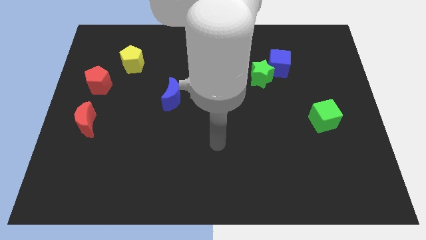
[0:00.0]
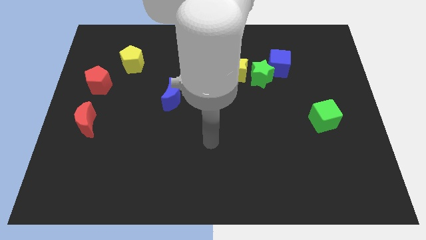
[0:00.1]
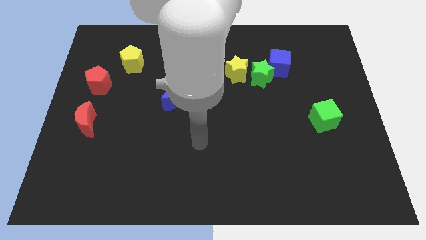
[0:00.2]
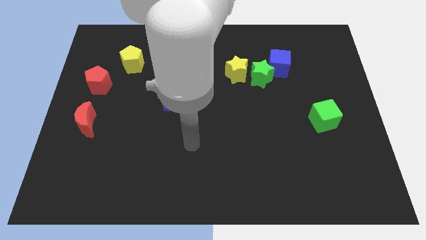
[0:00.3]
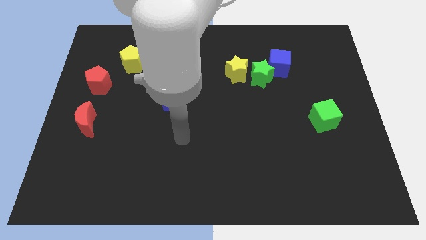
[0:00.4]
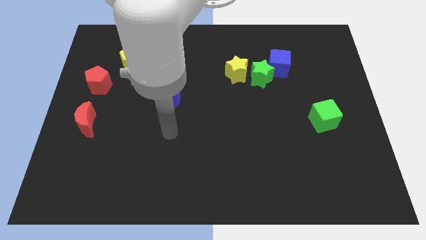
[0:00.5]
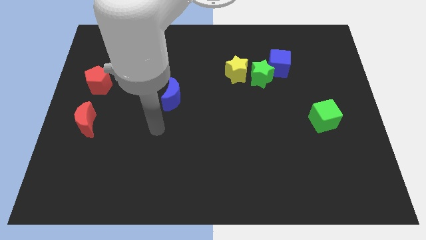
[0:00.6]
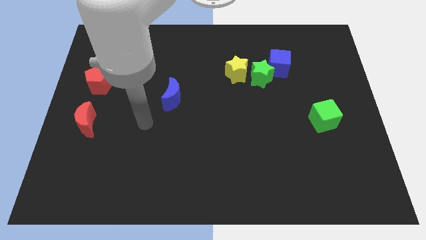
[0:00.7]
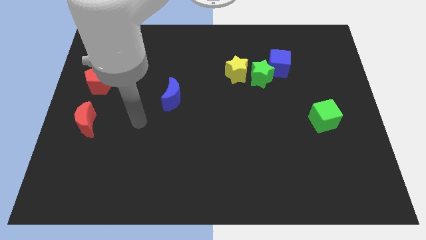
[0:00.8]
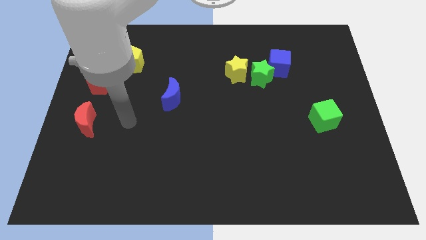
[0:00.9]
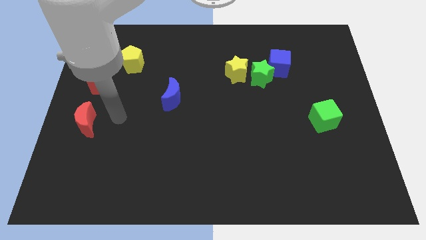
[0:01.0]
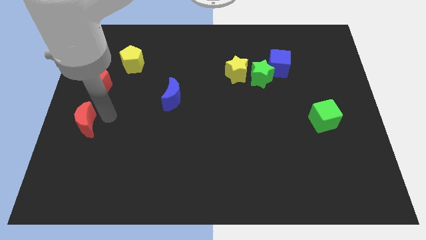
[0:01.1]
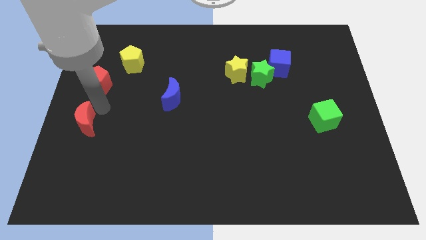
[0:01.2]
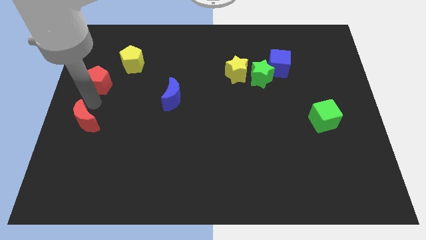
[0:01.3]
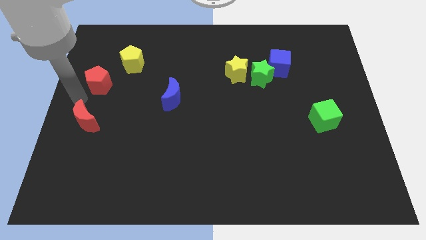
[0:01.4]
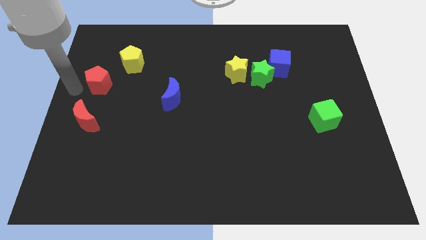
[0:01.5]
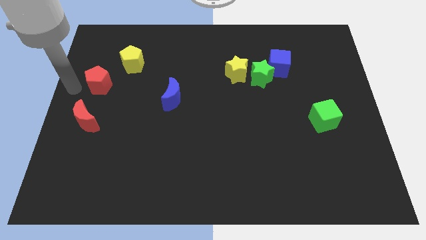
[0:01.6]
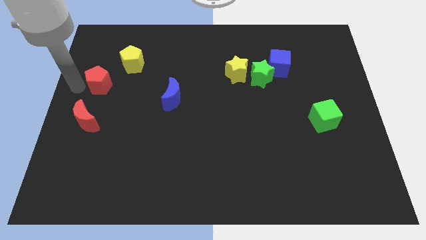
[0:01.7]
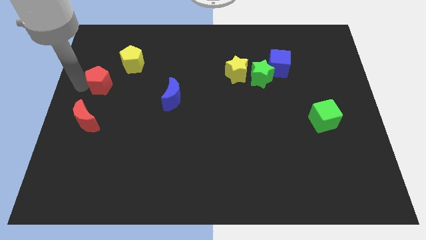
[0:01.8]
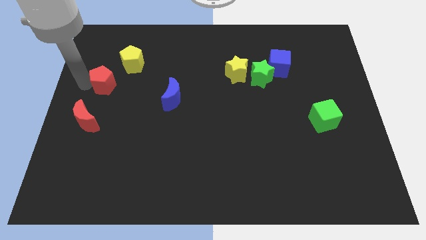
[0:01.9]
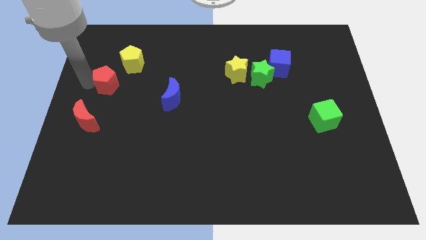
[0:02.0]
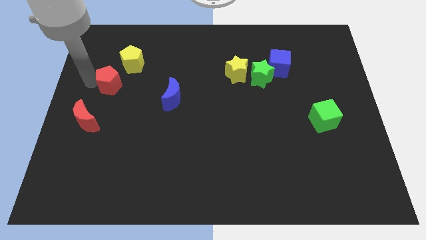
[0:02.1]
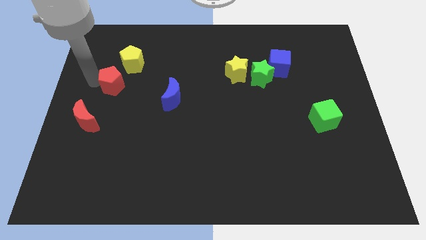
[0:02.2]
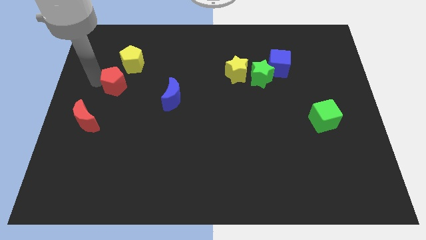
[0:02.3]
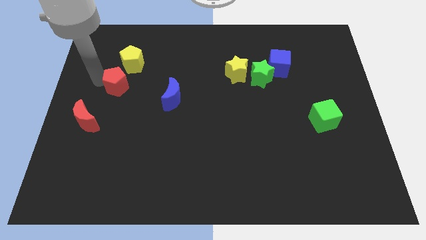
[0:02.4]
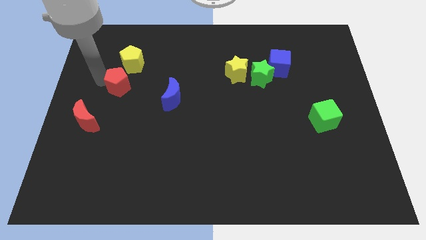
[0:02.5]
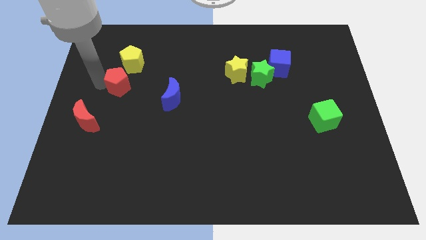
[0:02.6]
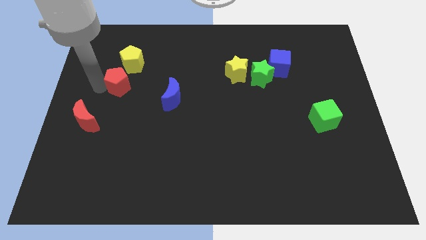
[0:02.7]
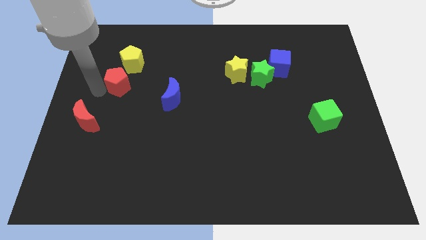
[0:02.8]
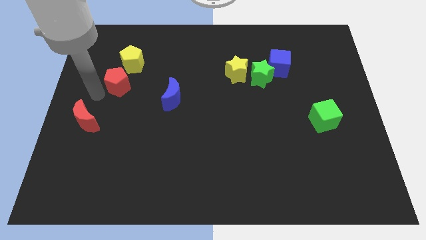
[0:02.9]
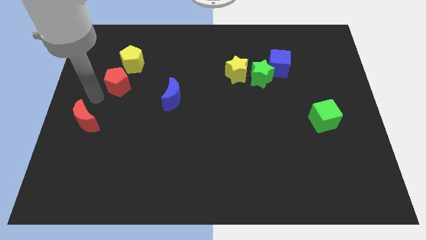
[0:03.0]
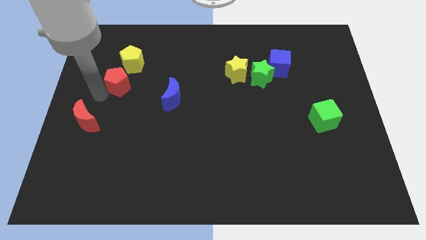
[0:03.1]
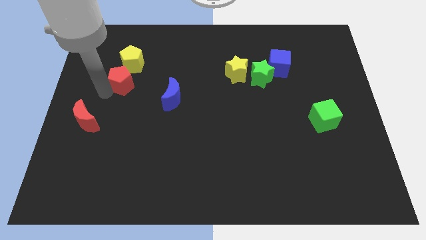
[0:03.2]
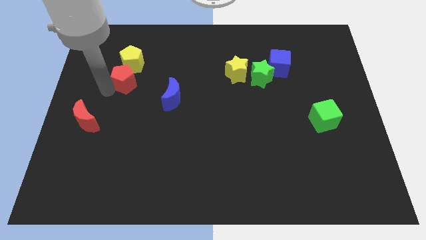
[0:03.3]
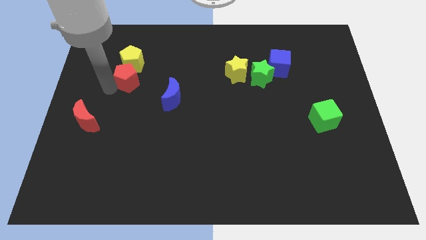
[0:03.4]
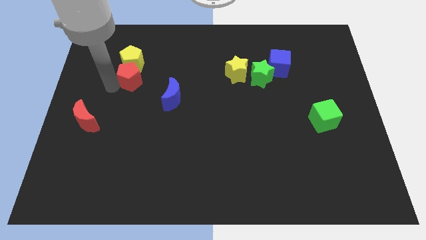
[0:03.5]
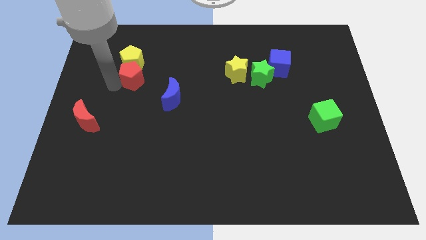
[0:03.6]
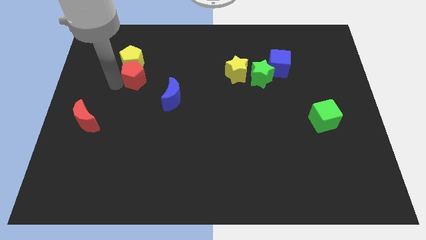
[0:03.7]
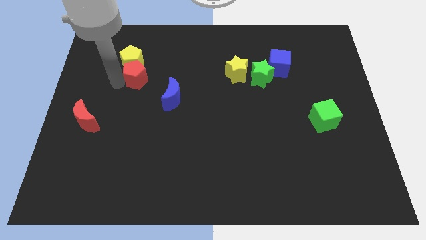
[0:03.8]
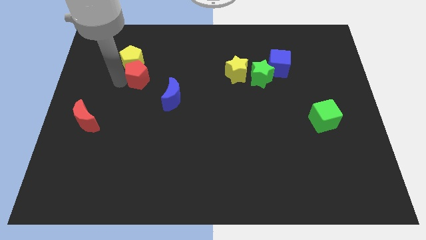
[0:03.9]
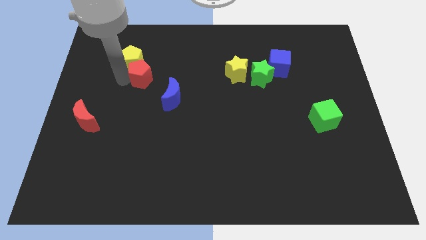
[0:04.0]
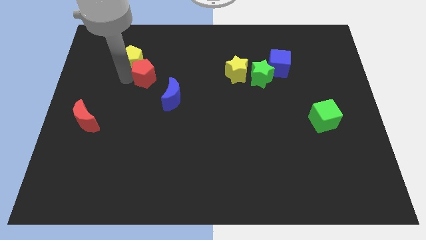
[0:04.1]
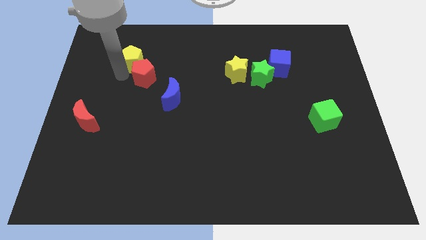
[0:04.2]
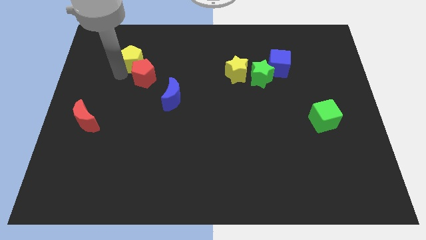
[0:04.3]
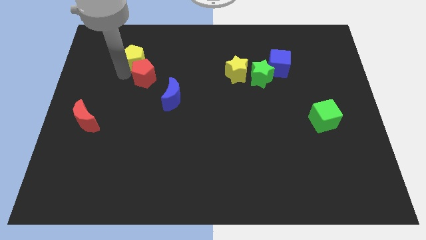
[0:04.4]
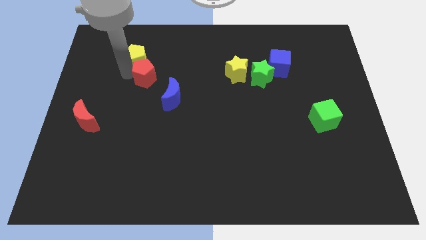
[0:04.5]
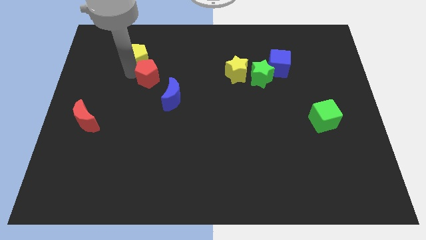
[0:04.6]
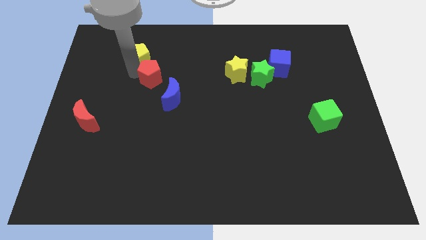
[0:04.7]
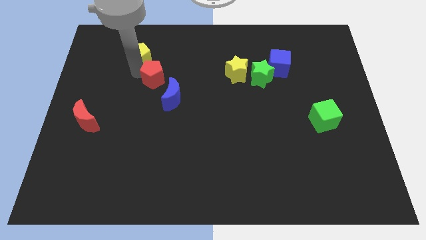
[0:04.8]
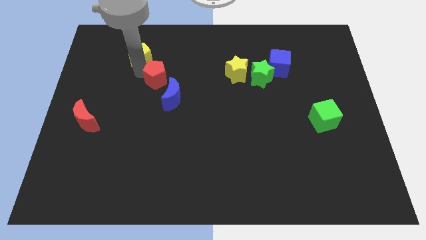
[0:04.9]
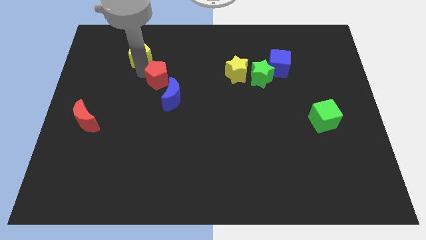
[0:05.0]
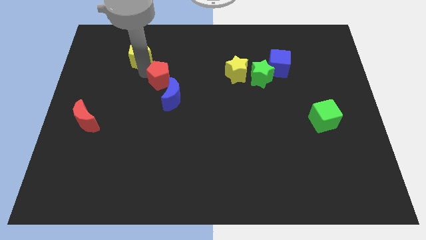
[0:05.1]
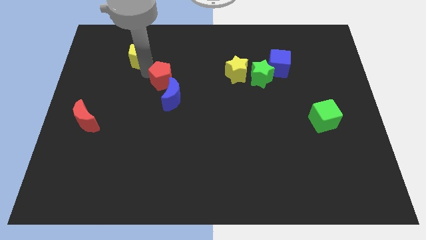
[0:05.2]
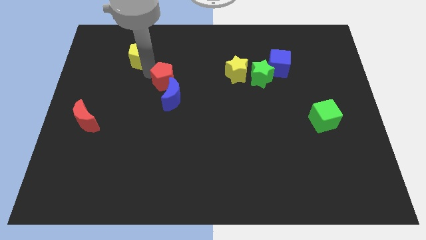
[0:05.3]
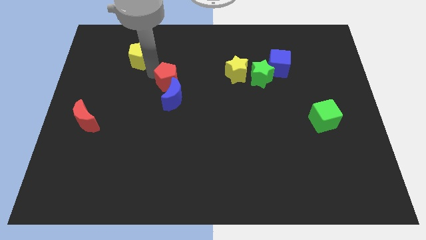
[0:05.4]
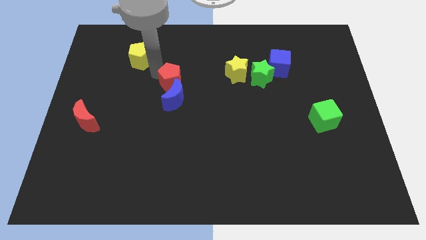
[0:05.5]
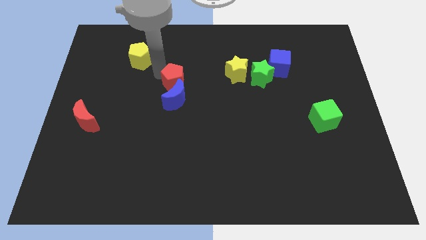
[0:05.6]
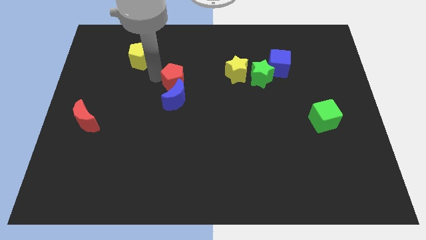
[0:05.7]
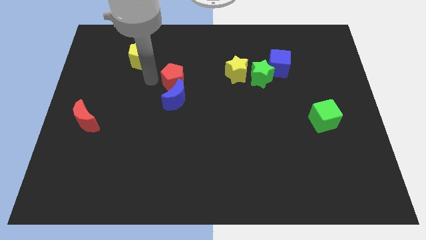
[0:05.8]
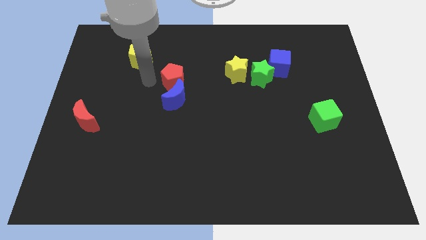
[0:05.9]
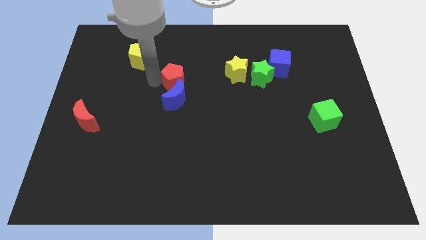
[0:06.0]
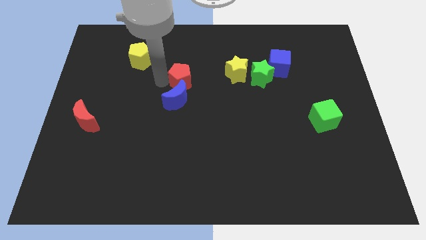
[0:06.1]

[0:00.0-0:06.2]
push the red pentagon right

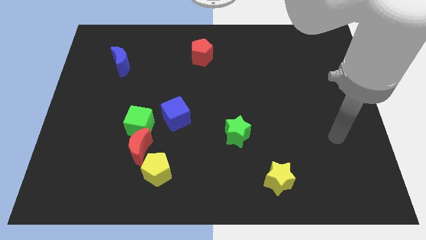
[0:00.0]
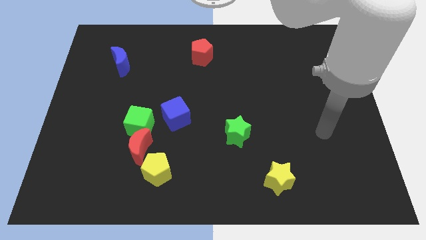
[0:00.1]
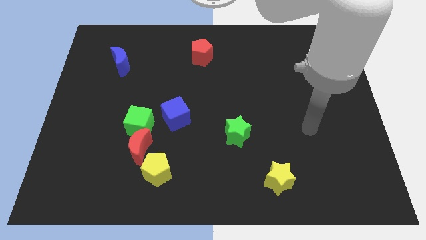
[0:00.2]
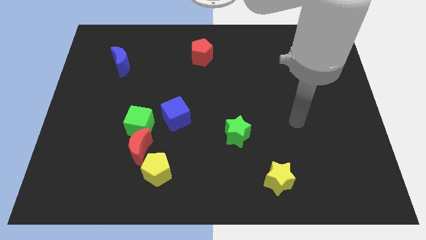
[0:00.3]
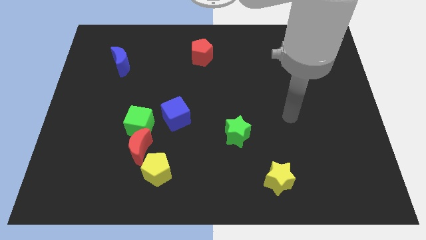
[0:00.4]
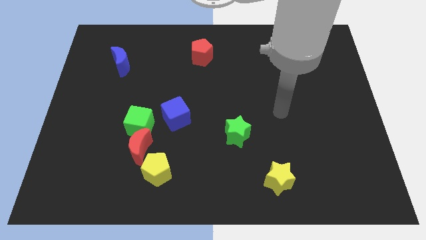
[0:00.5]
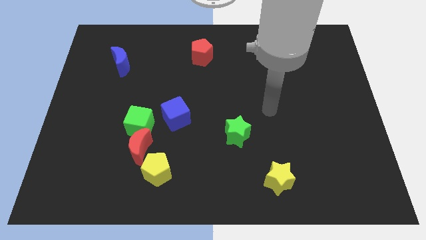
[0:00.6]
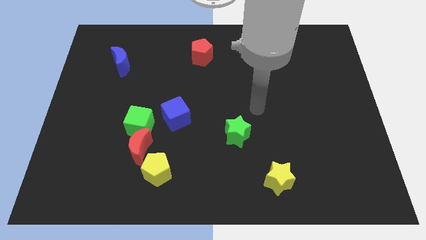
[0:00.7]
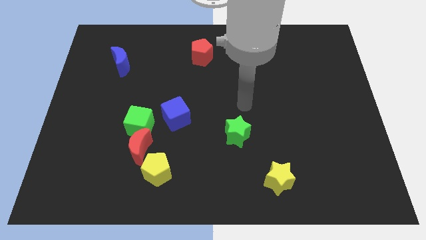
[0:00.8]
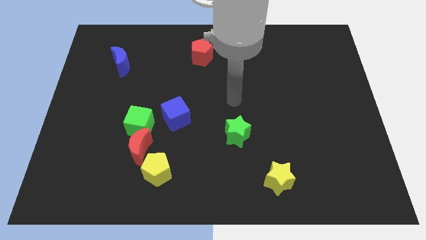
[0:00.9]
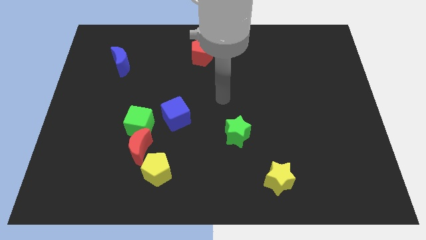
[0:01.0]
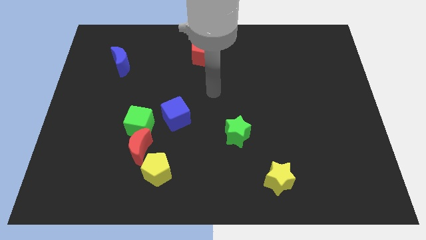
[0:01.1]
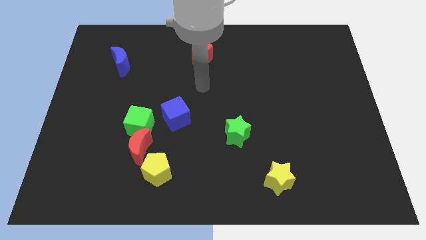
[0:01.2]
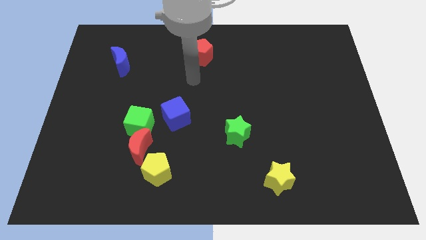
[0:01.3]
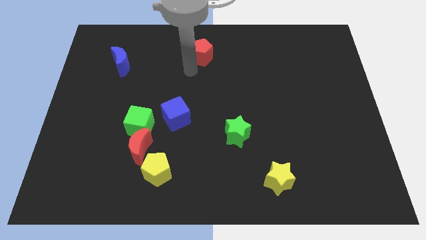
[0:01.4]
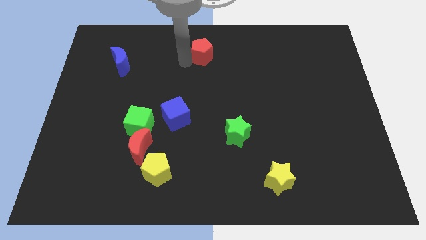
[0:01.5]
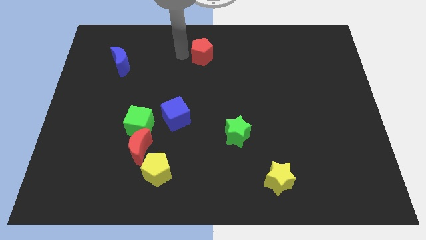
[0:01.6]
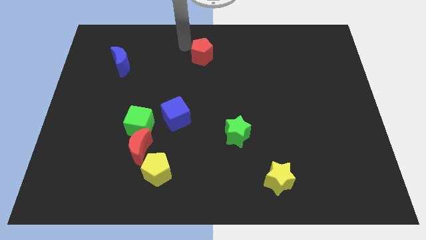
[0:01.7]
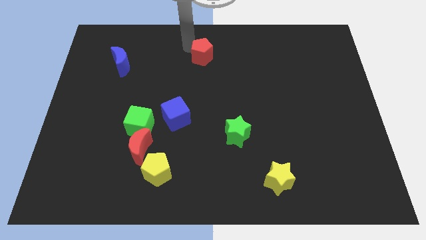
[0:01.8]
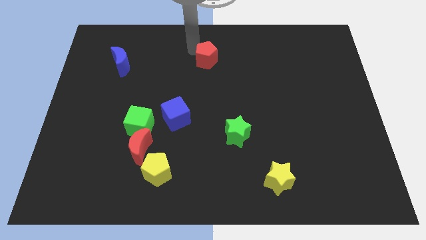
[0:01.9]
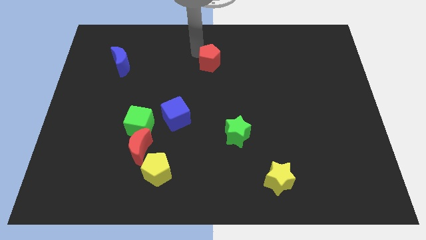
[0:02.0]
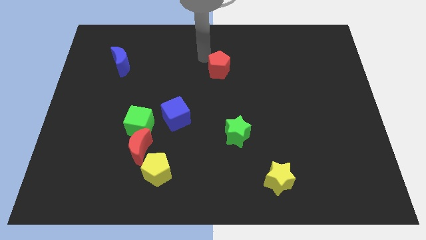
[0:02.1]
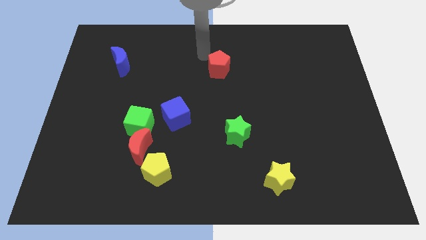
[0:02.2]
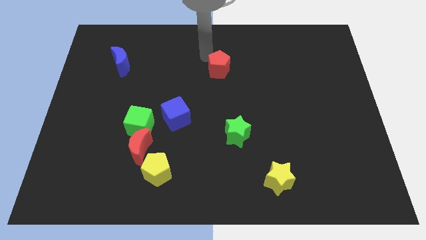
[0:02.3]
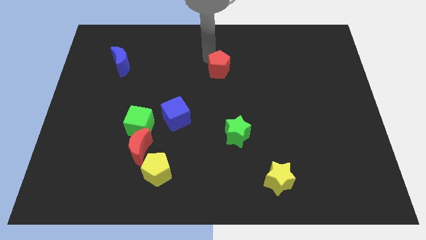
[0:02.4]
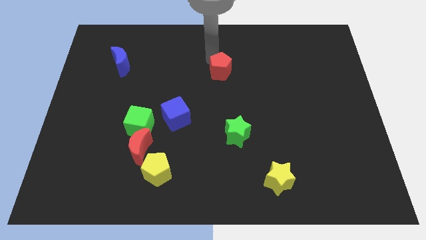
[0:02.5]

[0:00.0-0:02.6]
slide the red pentagon down and right a bit
